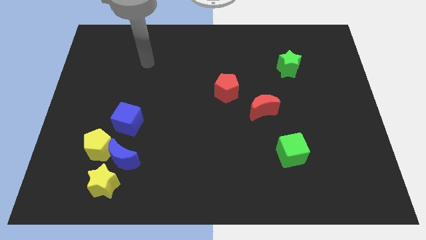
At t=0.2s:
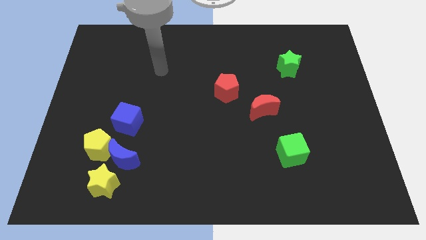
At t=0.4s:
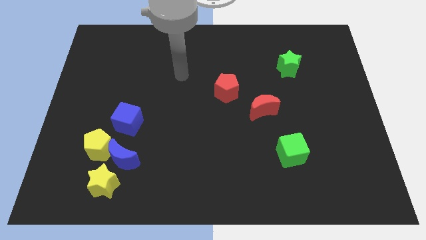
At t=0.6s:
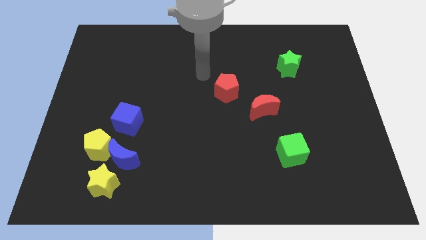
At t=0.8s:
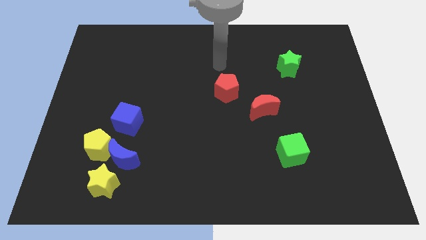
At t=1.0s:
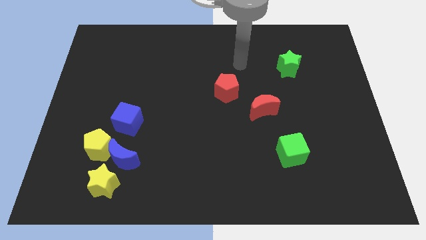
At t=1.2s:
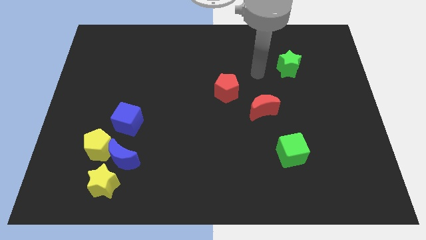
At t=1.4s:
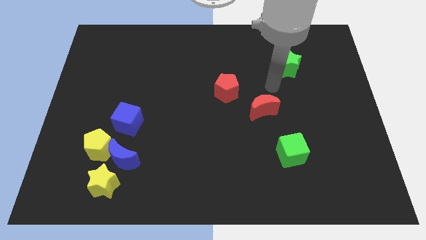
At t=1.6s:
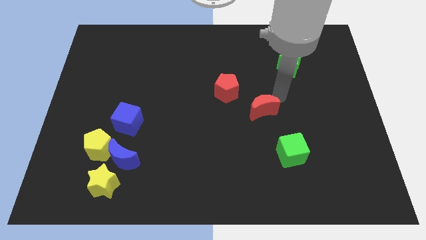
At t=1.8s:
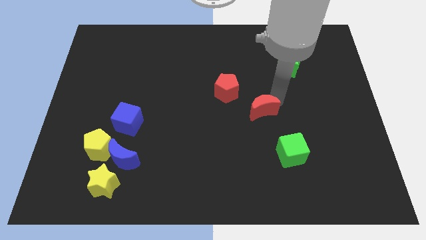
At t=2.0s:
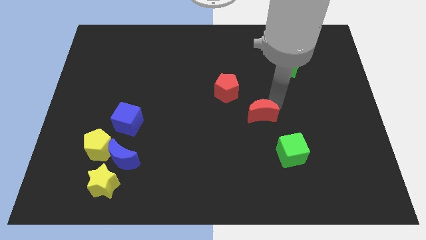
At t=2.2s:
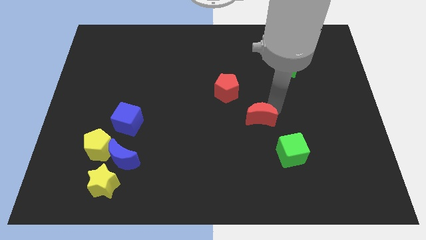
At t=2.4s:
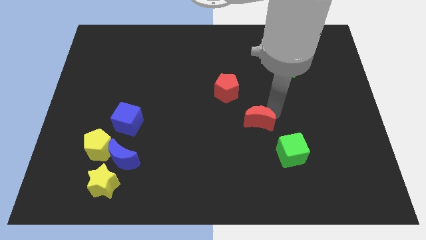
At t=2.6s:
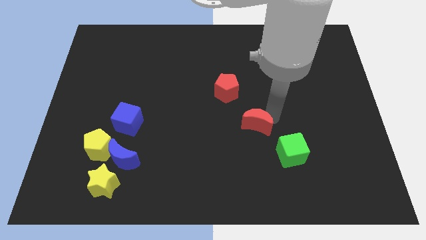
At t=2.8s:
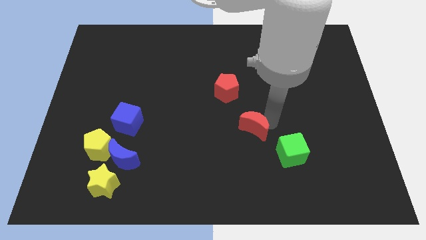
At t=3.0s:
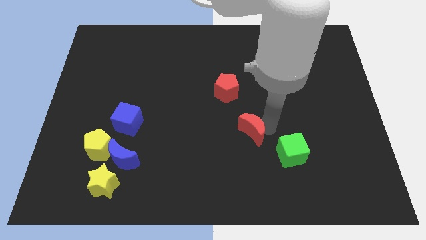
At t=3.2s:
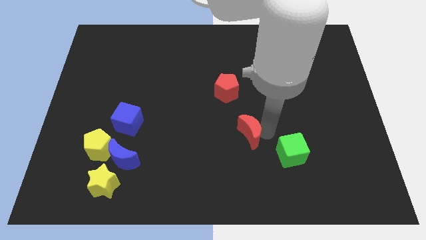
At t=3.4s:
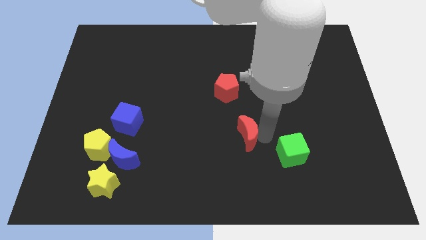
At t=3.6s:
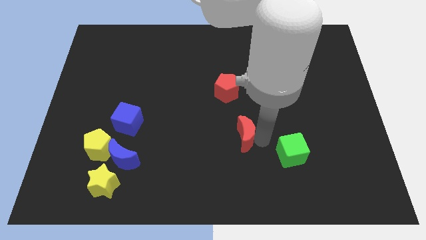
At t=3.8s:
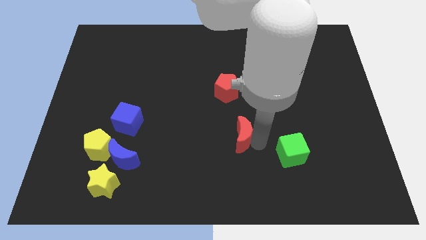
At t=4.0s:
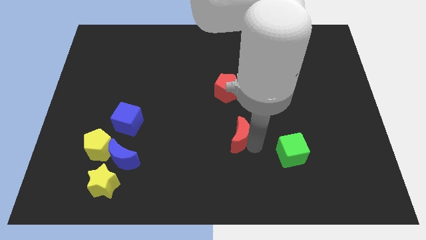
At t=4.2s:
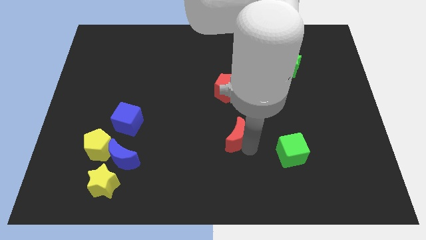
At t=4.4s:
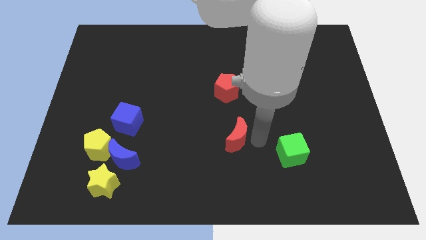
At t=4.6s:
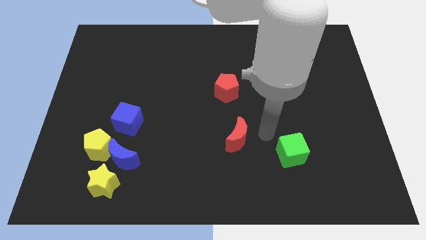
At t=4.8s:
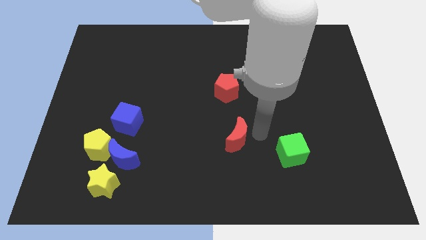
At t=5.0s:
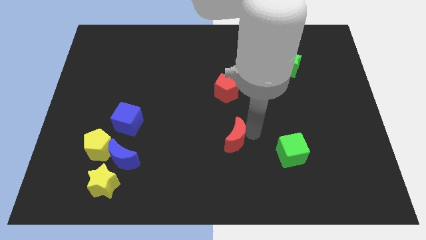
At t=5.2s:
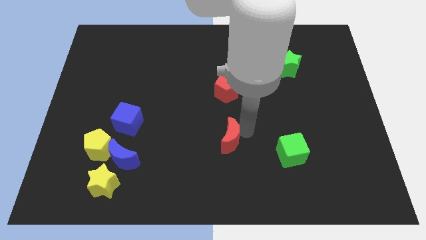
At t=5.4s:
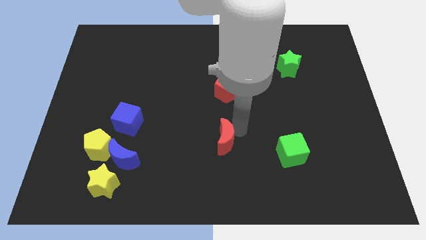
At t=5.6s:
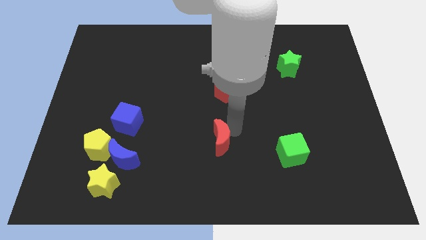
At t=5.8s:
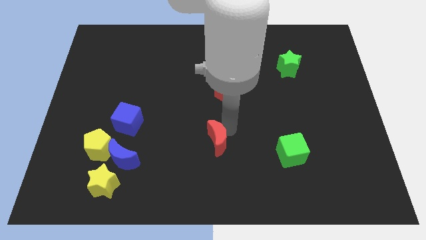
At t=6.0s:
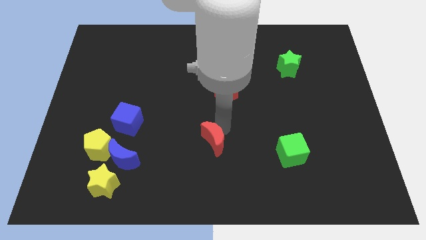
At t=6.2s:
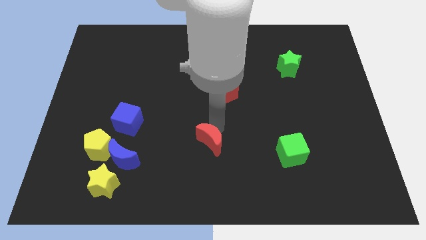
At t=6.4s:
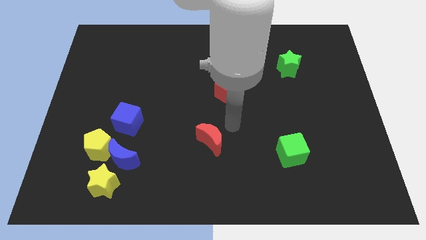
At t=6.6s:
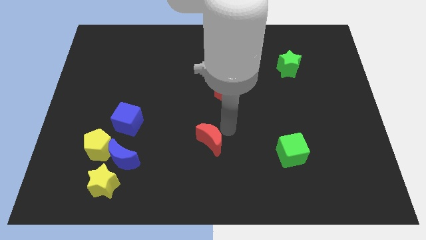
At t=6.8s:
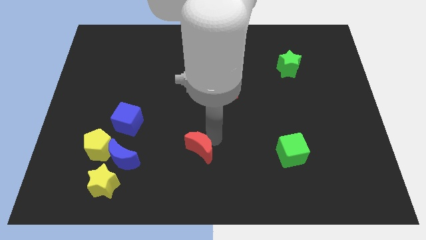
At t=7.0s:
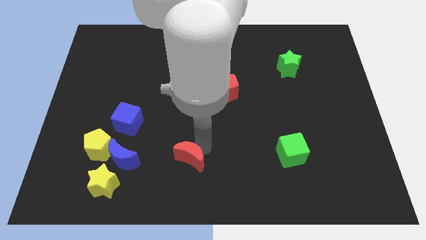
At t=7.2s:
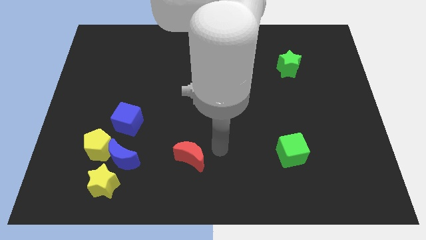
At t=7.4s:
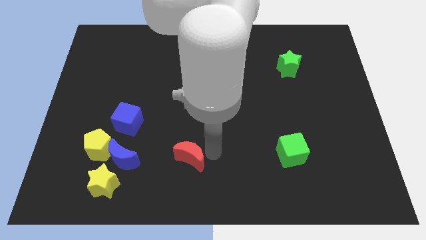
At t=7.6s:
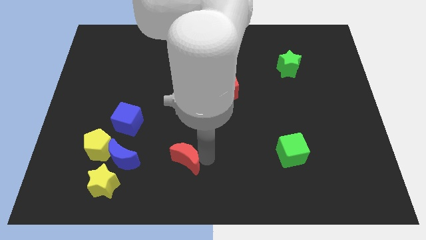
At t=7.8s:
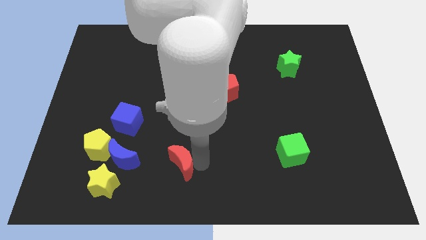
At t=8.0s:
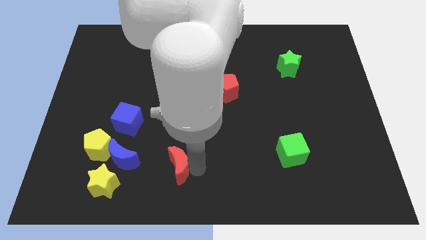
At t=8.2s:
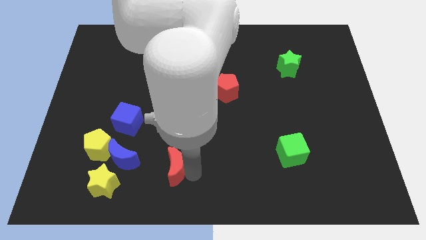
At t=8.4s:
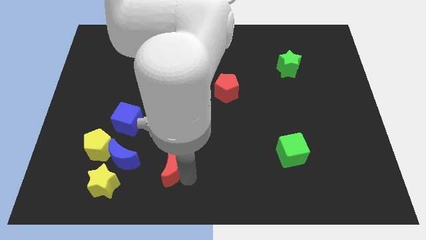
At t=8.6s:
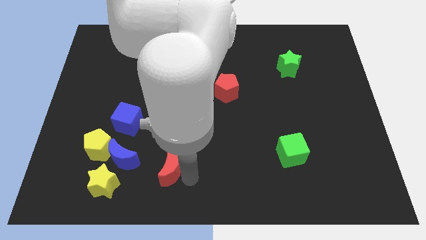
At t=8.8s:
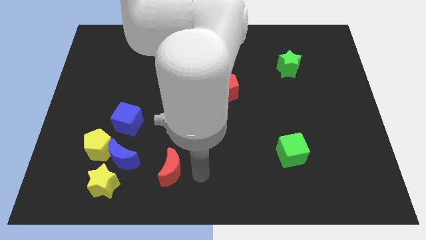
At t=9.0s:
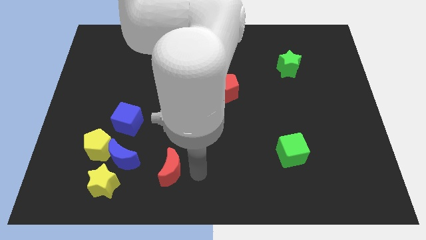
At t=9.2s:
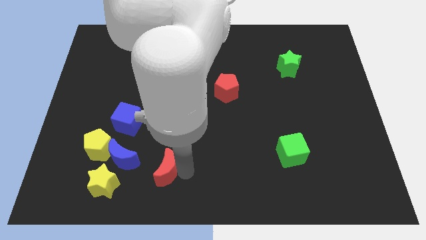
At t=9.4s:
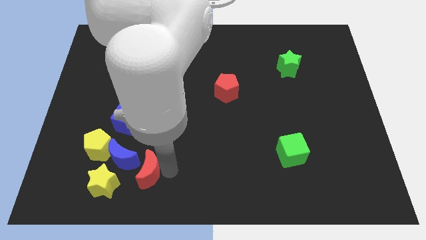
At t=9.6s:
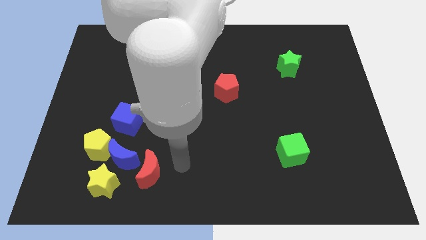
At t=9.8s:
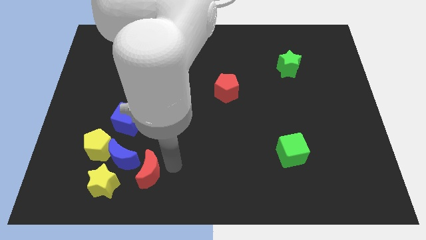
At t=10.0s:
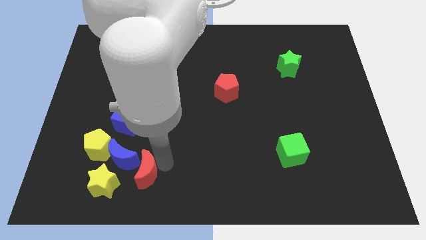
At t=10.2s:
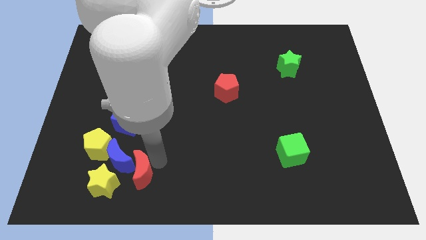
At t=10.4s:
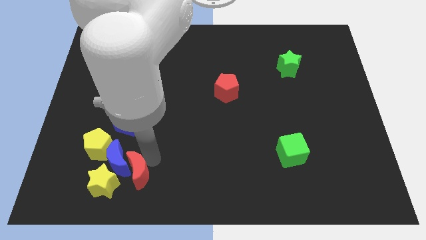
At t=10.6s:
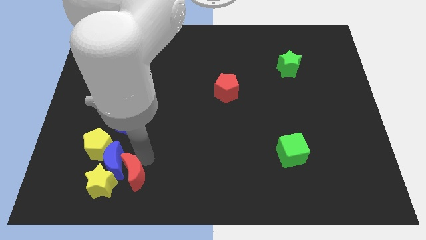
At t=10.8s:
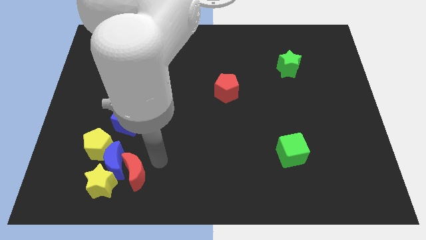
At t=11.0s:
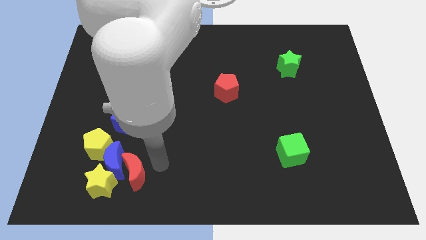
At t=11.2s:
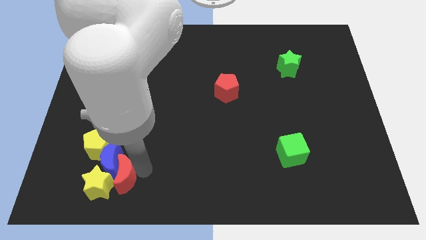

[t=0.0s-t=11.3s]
slide the red moon towards the yellow star

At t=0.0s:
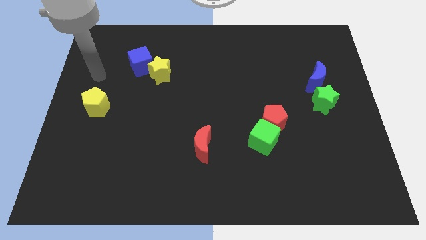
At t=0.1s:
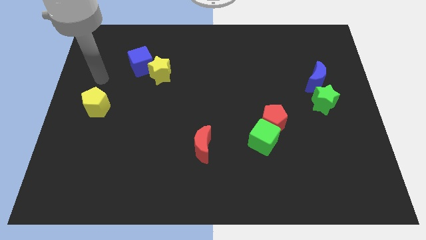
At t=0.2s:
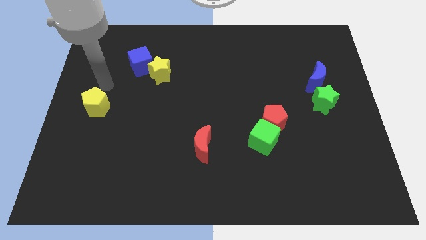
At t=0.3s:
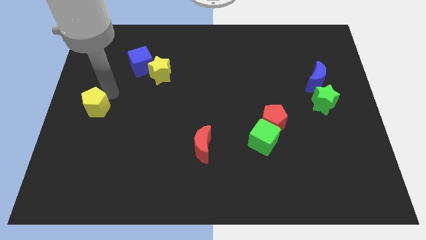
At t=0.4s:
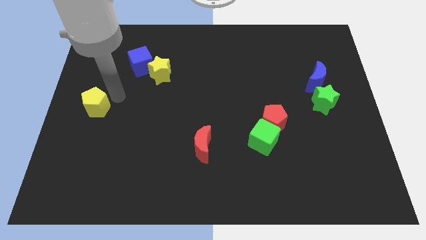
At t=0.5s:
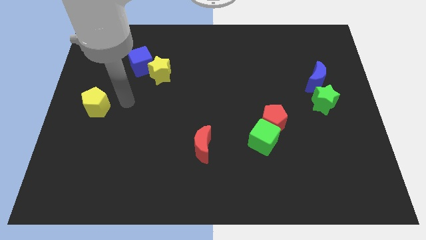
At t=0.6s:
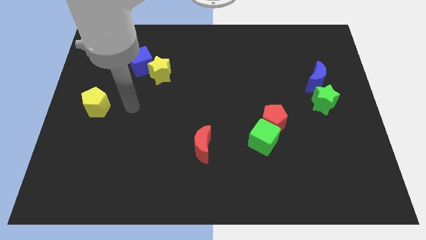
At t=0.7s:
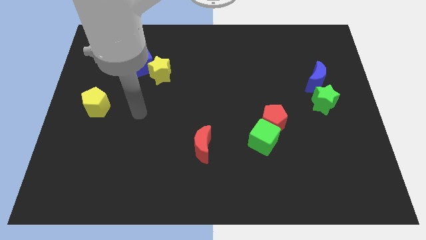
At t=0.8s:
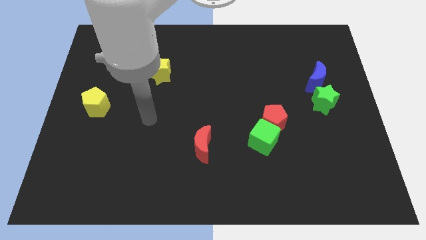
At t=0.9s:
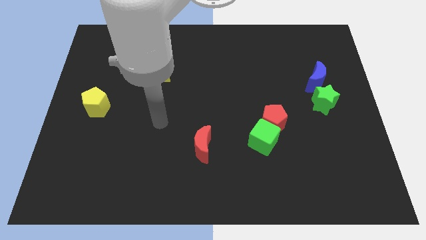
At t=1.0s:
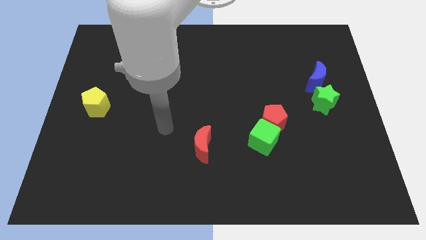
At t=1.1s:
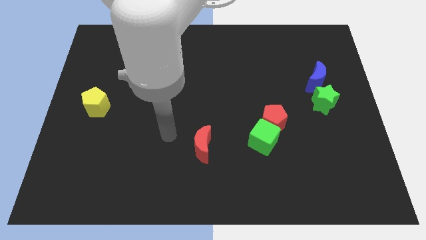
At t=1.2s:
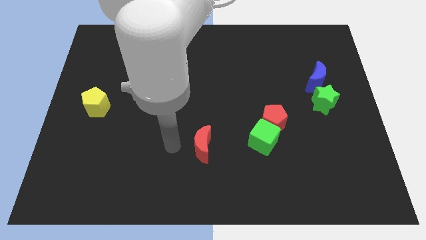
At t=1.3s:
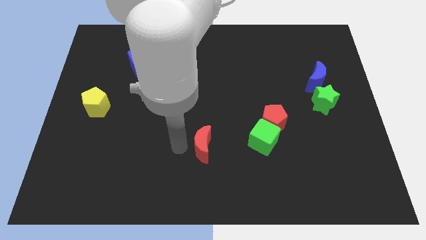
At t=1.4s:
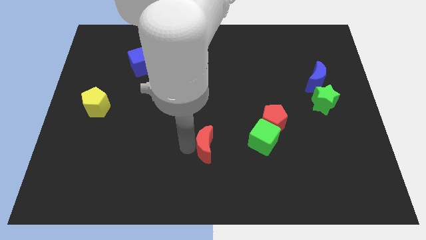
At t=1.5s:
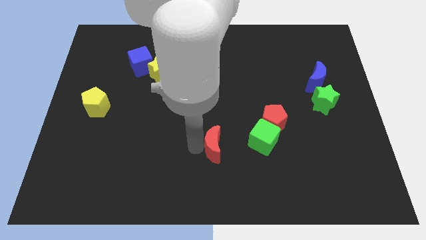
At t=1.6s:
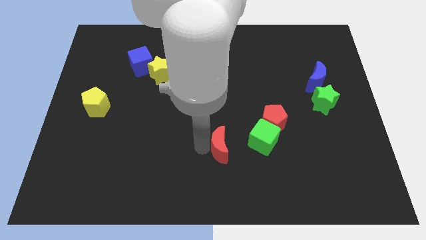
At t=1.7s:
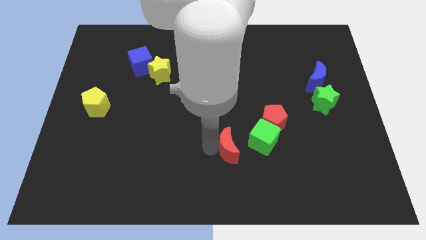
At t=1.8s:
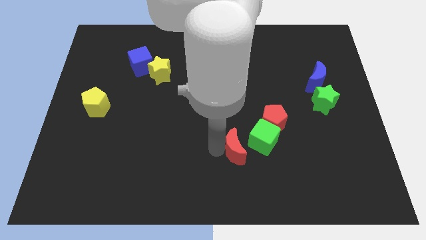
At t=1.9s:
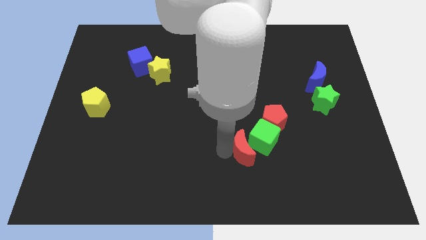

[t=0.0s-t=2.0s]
slide the red moon towards the green cube
